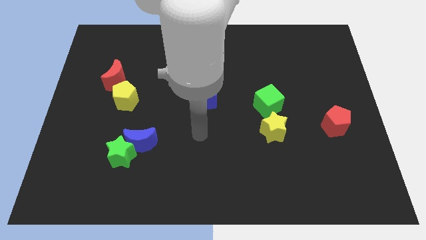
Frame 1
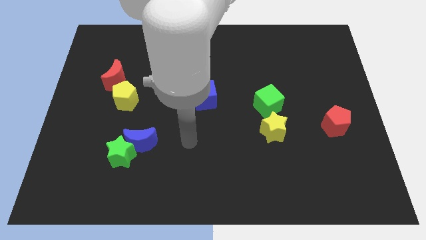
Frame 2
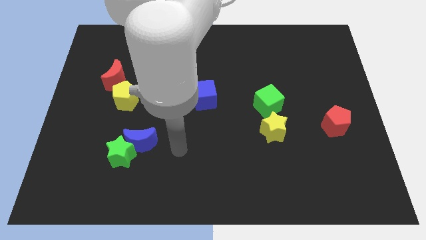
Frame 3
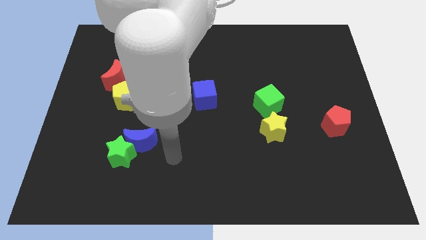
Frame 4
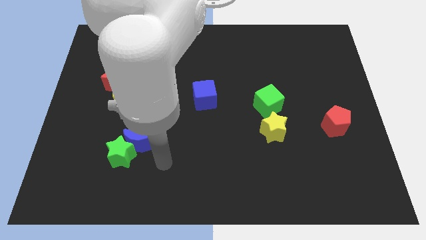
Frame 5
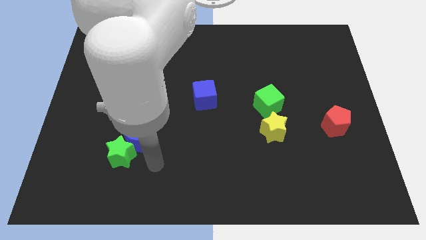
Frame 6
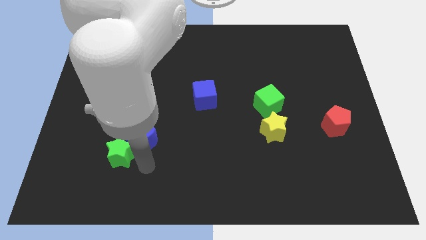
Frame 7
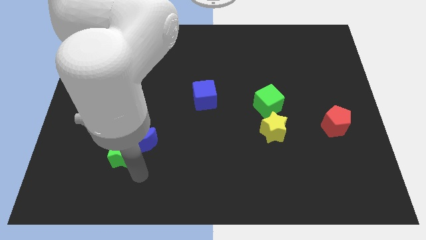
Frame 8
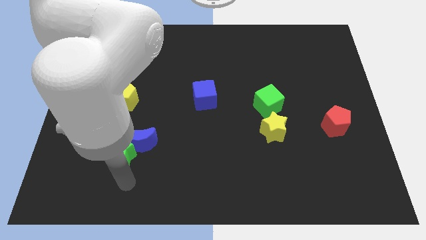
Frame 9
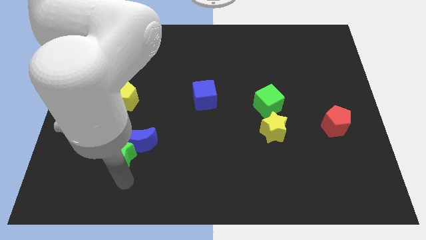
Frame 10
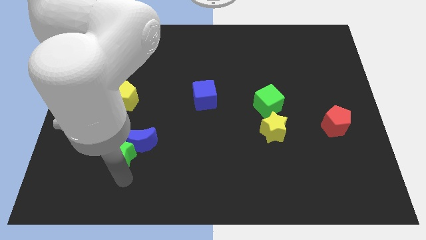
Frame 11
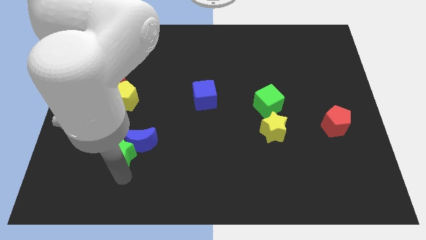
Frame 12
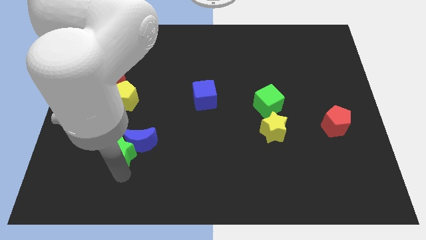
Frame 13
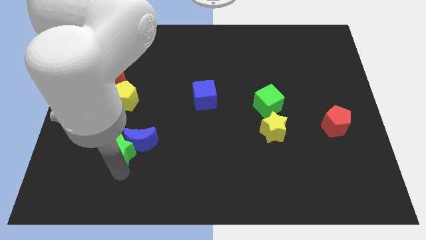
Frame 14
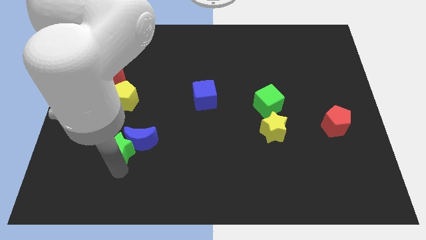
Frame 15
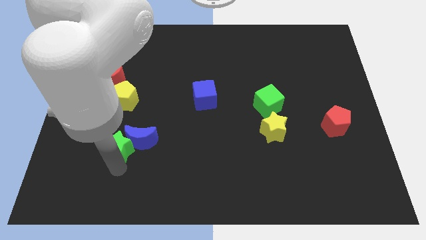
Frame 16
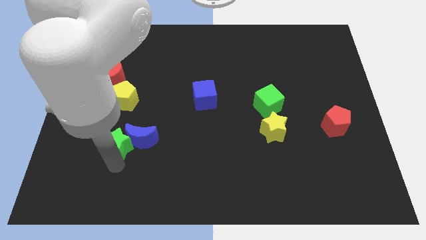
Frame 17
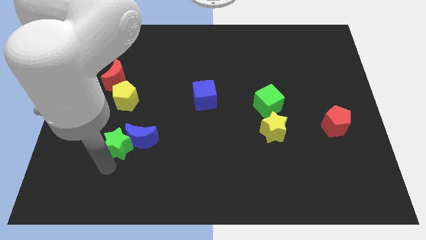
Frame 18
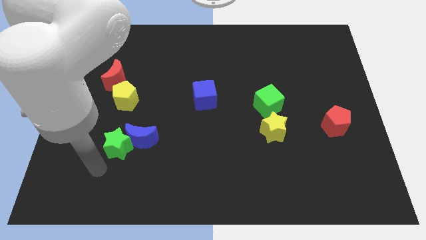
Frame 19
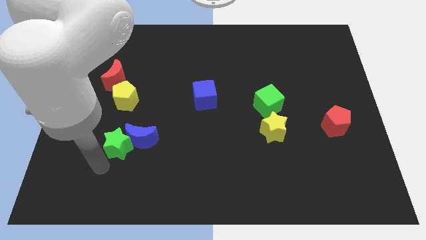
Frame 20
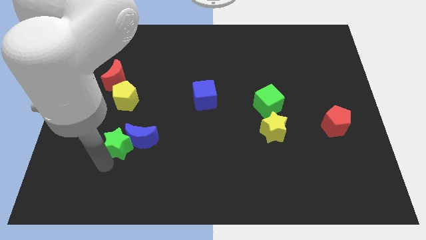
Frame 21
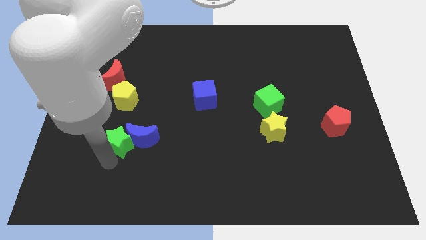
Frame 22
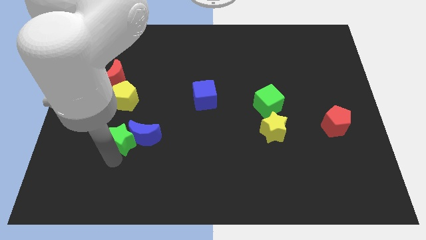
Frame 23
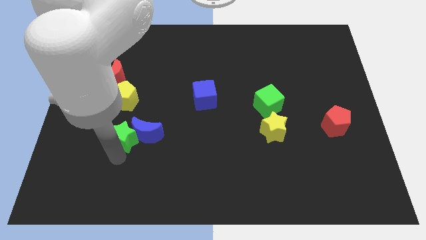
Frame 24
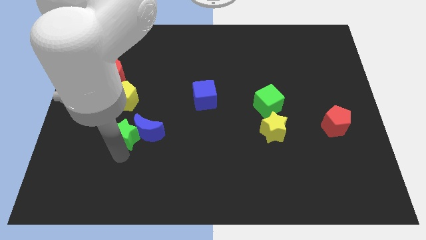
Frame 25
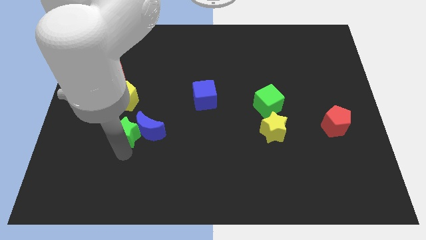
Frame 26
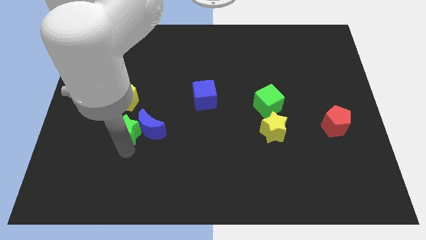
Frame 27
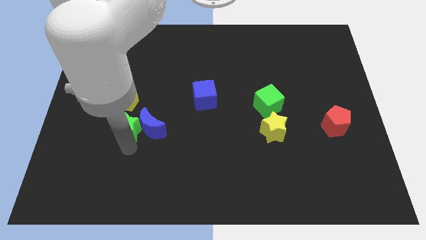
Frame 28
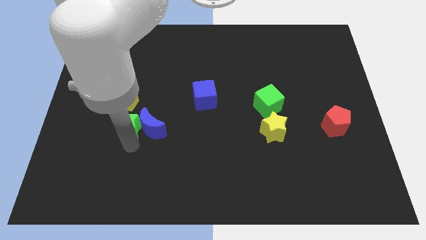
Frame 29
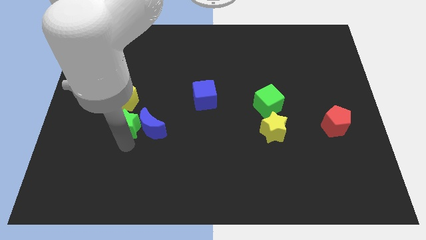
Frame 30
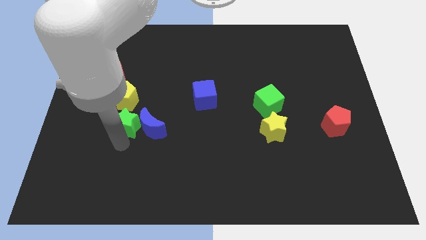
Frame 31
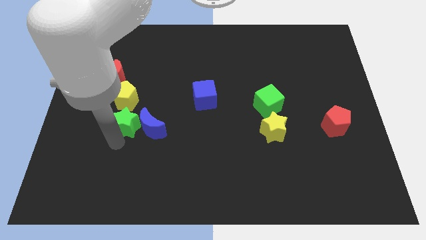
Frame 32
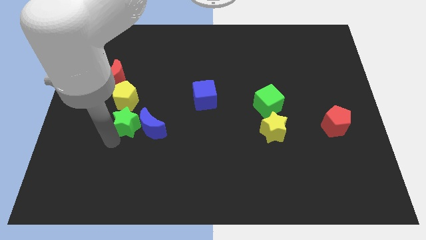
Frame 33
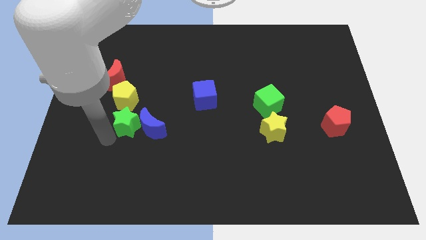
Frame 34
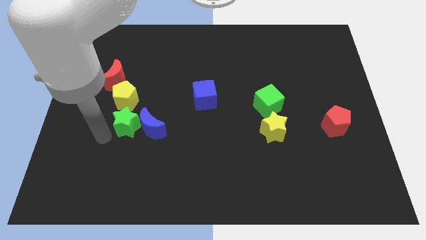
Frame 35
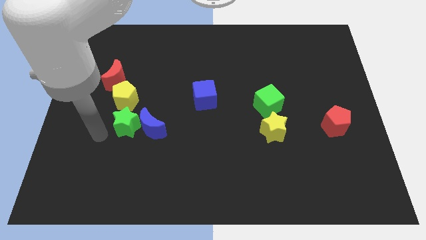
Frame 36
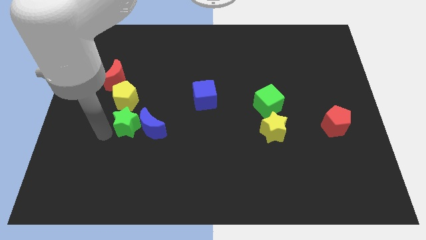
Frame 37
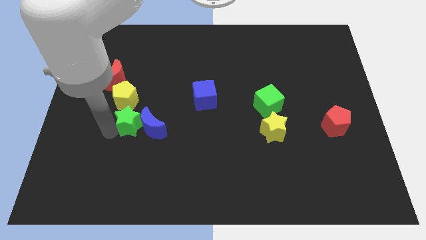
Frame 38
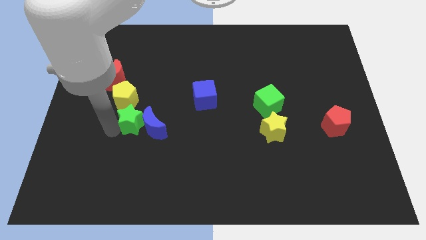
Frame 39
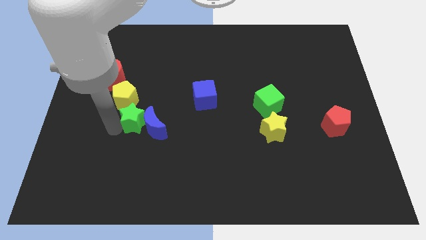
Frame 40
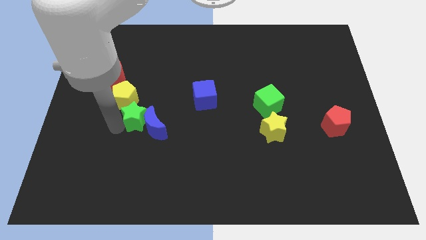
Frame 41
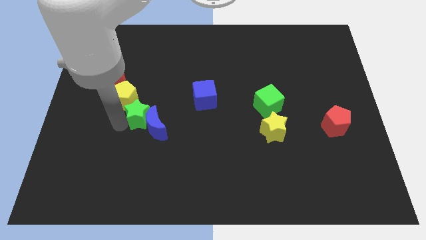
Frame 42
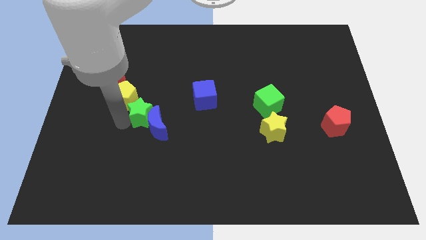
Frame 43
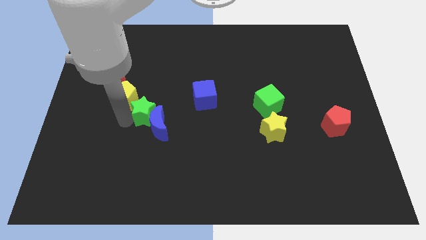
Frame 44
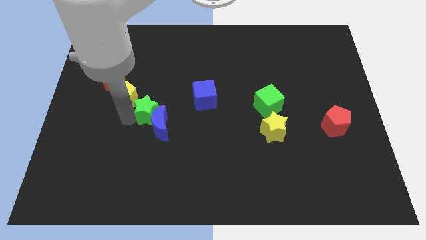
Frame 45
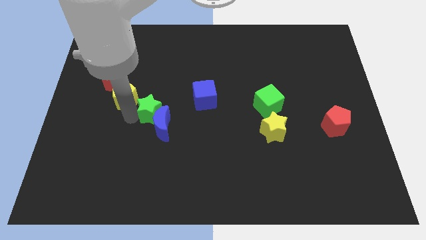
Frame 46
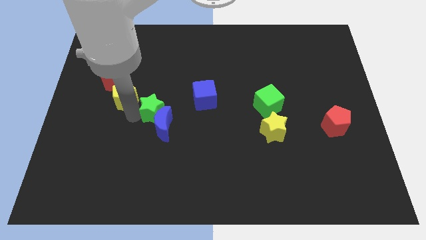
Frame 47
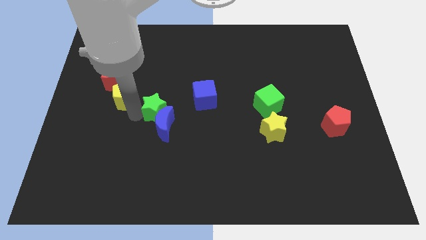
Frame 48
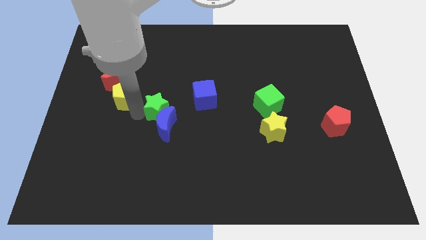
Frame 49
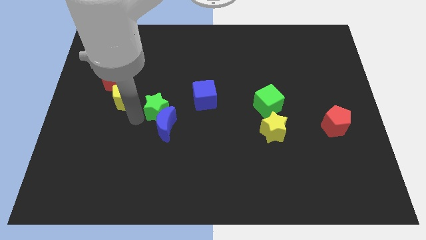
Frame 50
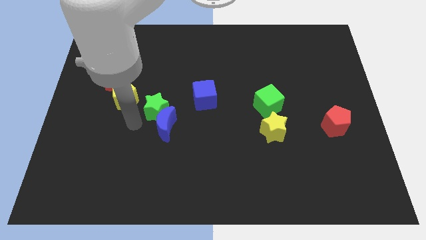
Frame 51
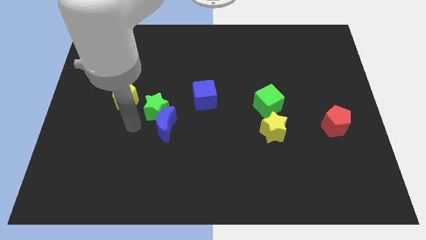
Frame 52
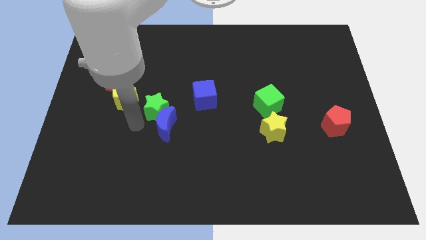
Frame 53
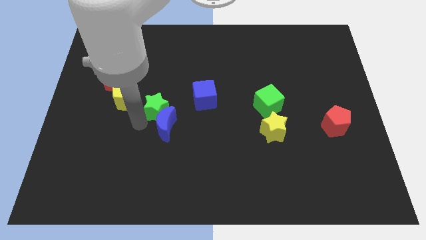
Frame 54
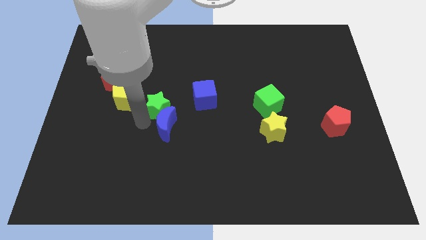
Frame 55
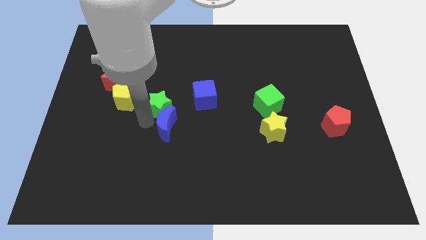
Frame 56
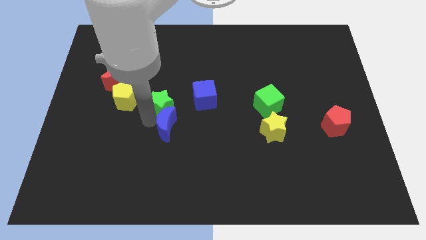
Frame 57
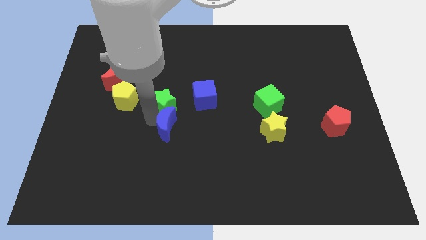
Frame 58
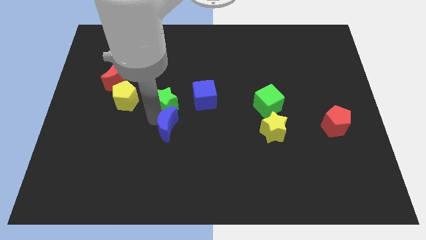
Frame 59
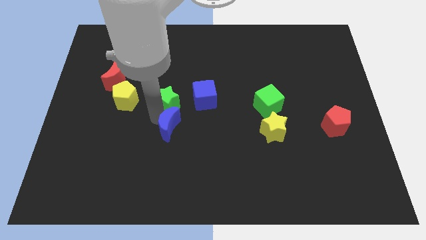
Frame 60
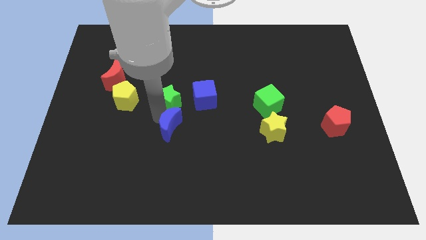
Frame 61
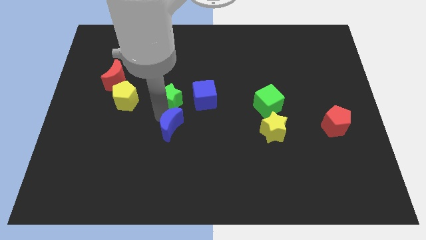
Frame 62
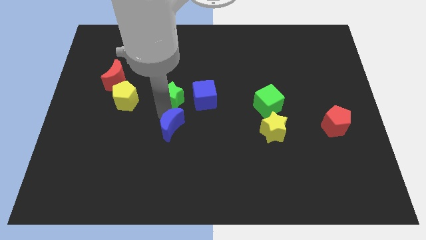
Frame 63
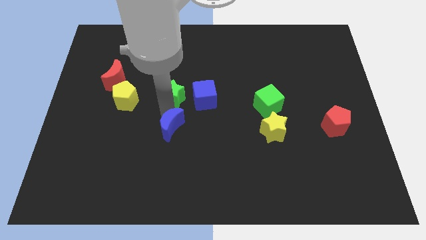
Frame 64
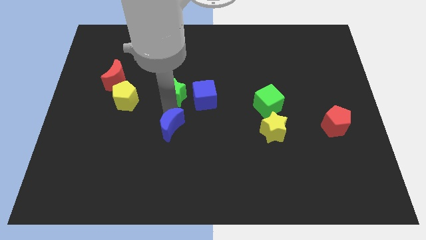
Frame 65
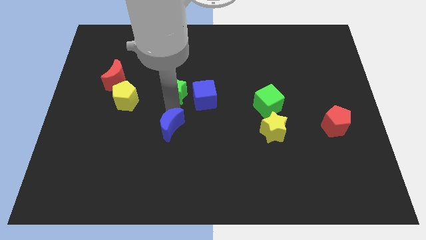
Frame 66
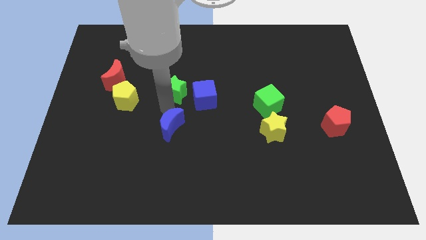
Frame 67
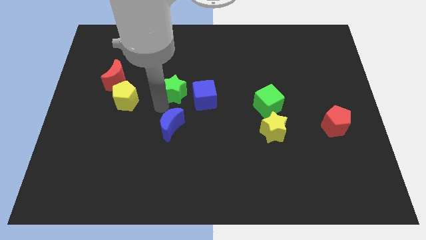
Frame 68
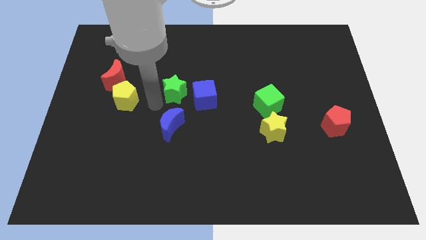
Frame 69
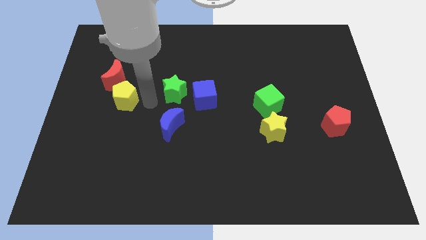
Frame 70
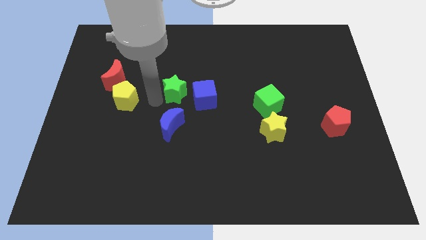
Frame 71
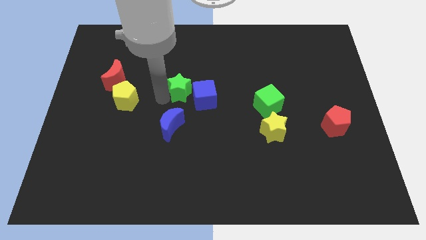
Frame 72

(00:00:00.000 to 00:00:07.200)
push the green star upwards and to the right diagonally

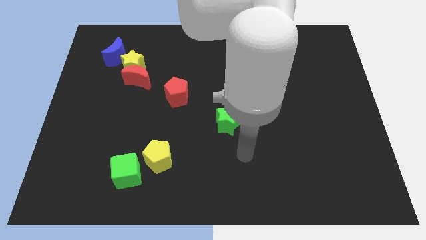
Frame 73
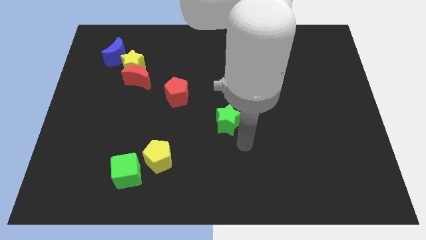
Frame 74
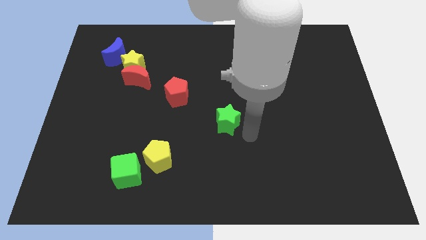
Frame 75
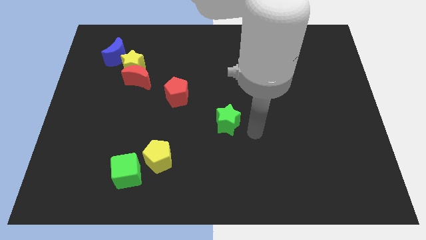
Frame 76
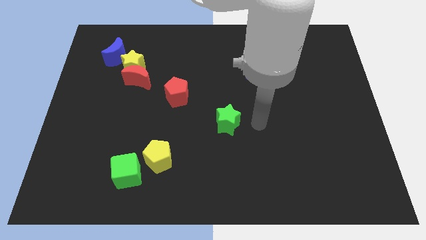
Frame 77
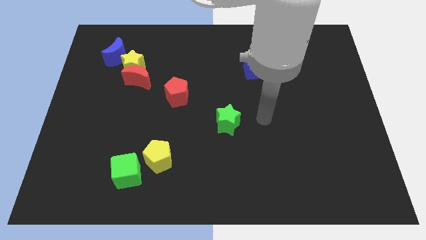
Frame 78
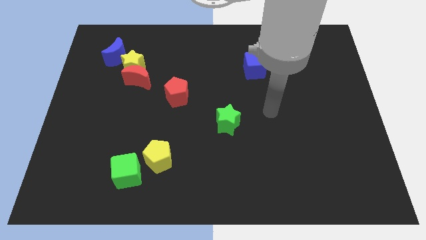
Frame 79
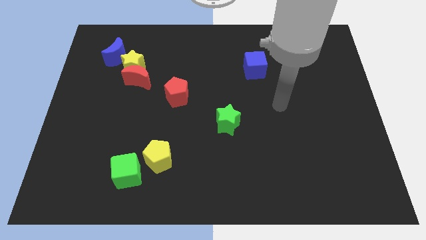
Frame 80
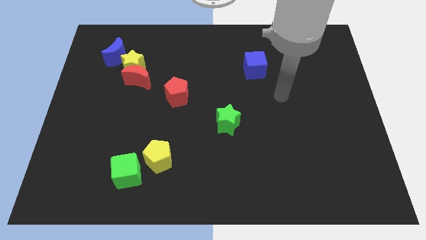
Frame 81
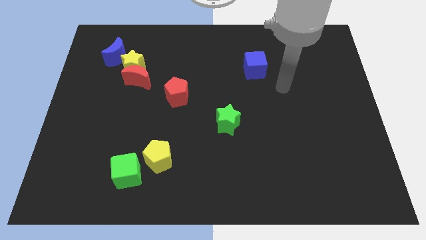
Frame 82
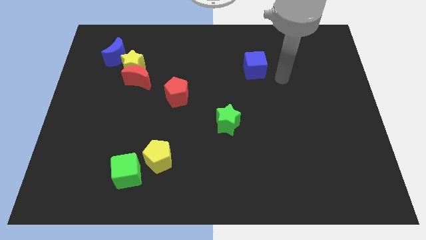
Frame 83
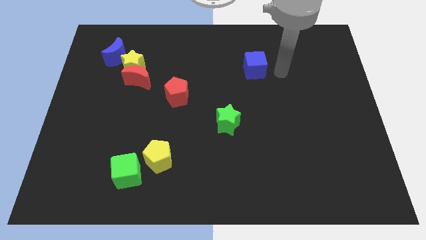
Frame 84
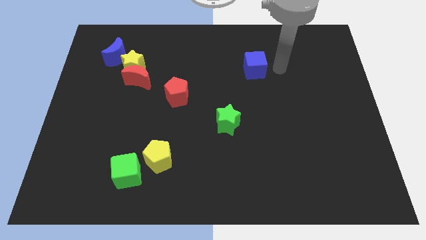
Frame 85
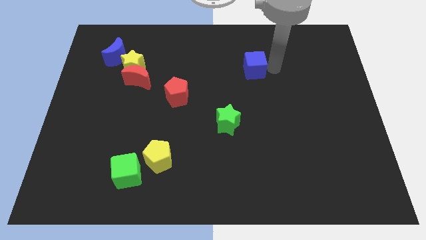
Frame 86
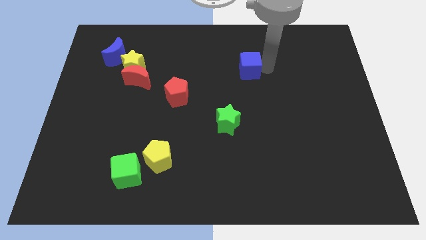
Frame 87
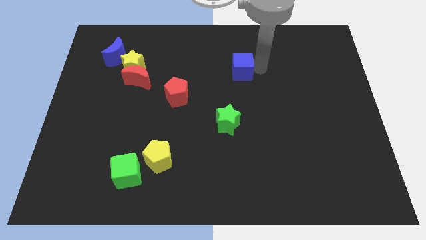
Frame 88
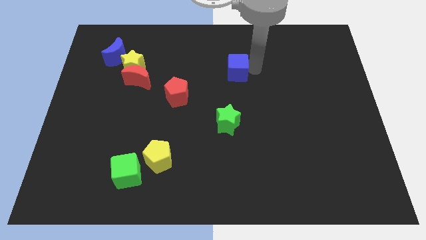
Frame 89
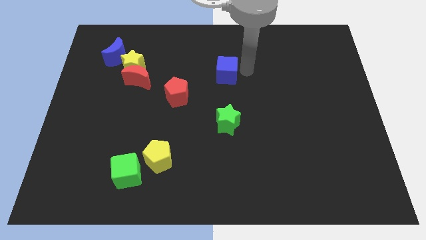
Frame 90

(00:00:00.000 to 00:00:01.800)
push the blue cube left a bit
